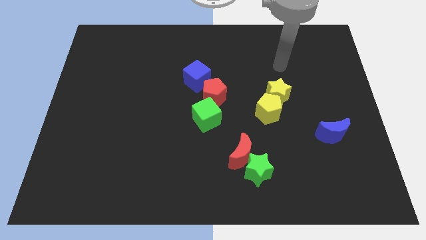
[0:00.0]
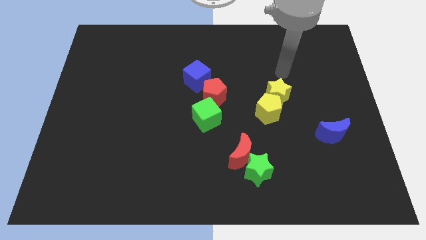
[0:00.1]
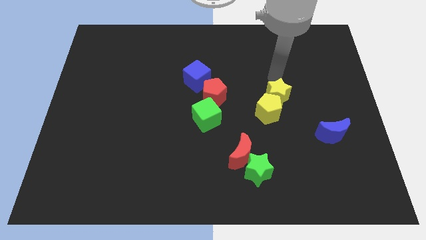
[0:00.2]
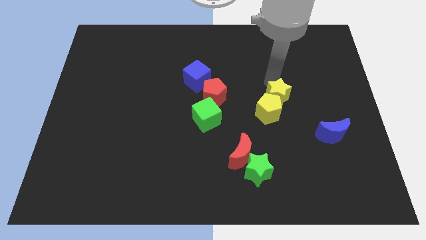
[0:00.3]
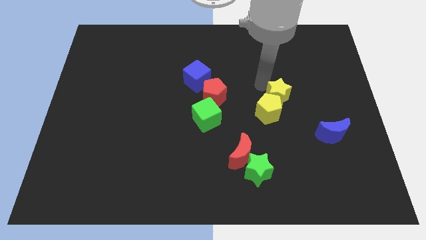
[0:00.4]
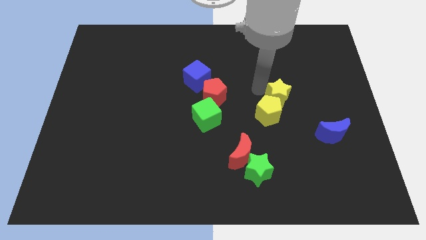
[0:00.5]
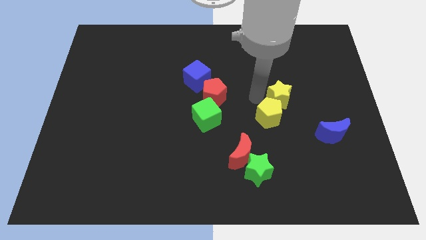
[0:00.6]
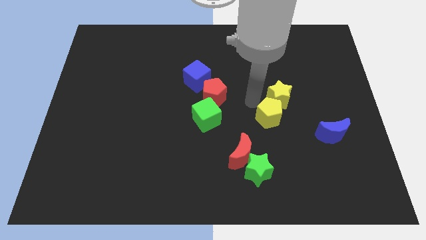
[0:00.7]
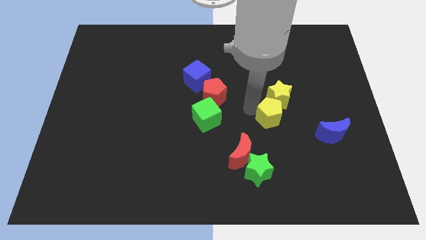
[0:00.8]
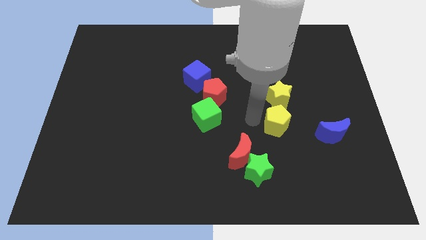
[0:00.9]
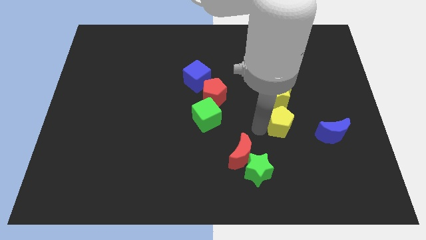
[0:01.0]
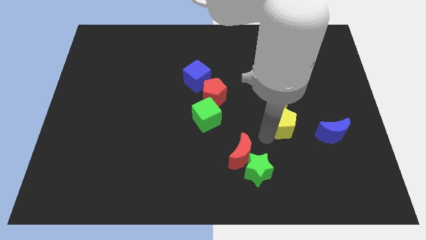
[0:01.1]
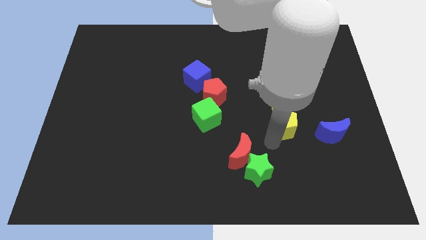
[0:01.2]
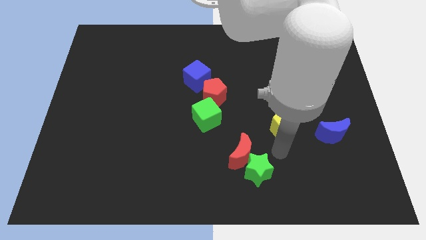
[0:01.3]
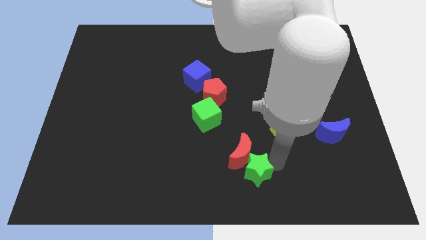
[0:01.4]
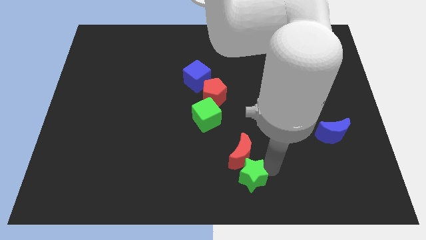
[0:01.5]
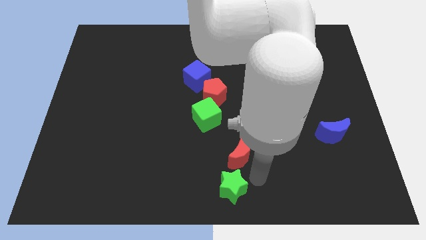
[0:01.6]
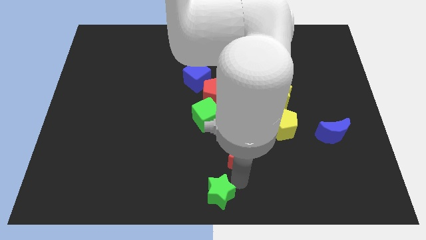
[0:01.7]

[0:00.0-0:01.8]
pull the red moon apart from the green star

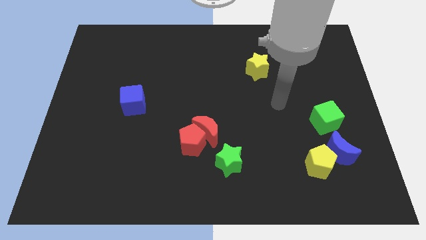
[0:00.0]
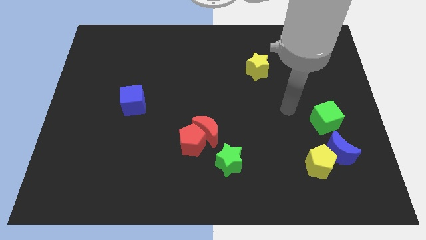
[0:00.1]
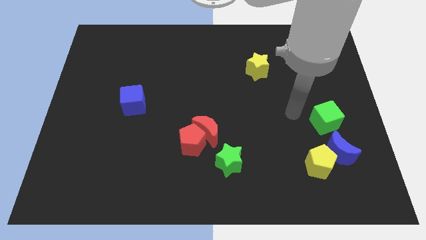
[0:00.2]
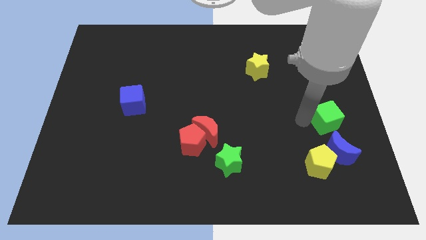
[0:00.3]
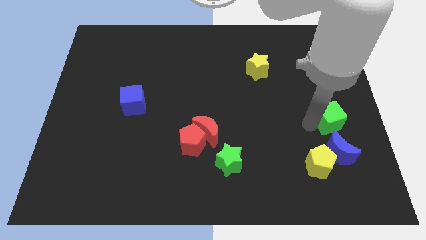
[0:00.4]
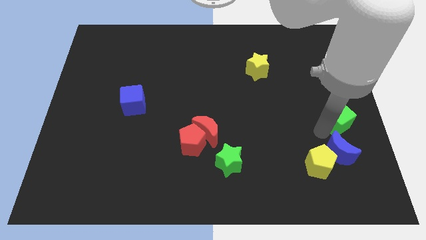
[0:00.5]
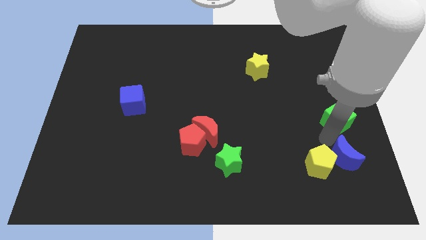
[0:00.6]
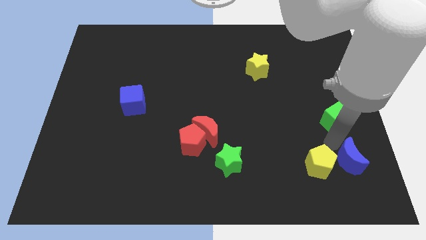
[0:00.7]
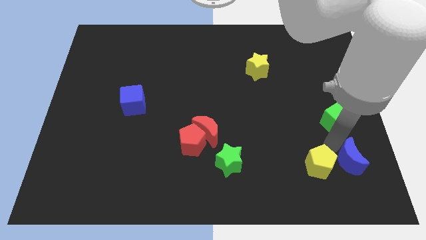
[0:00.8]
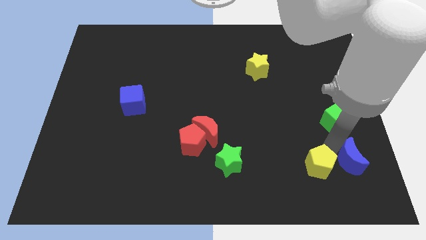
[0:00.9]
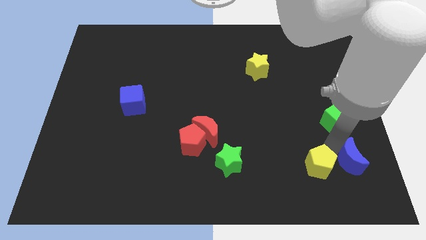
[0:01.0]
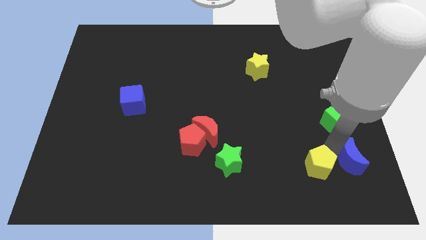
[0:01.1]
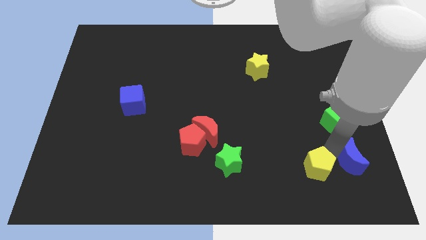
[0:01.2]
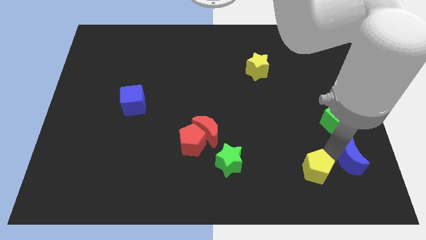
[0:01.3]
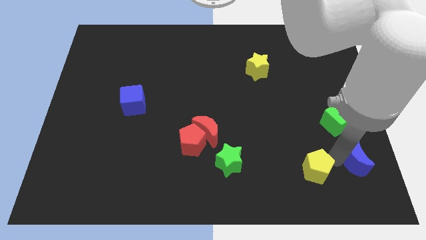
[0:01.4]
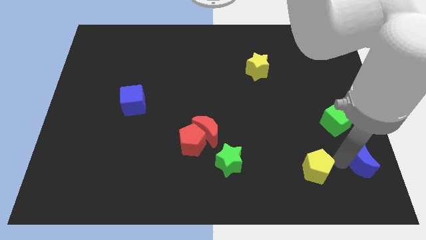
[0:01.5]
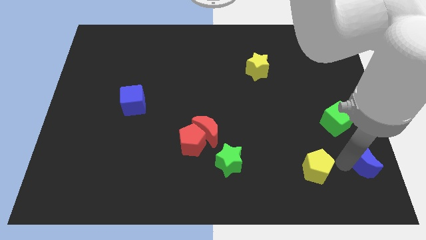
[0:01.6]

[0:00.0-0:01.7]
move the yellow pentagon away from the blue moon

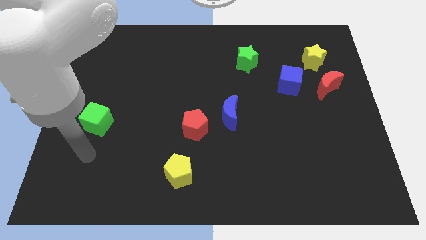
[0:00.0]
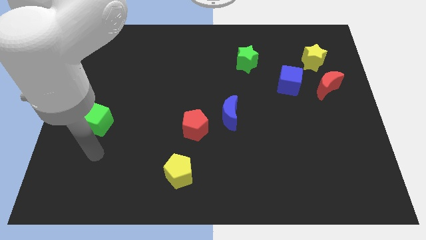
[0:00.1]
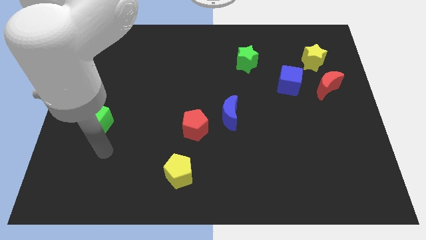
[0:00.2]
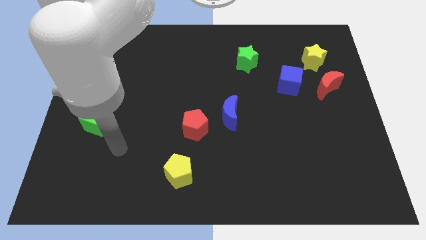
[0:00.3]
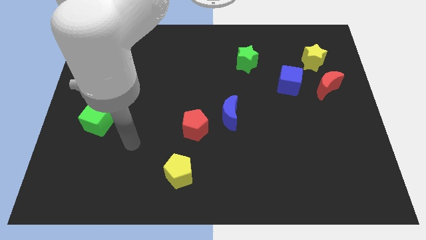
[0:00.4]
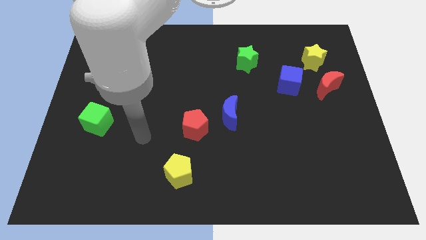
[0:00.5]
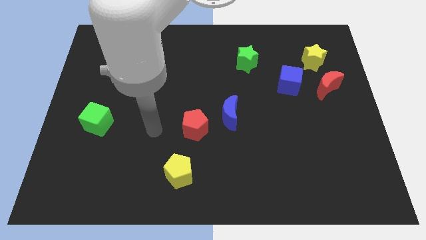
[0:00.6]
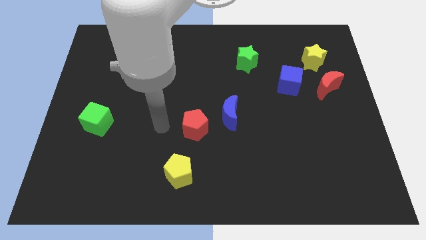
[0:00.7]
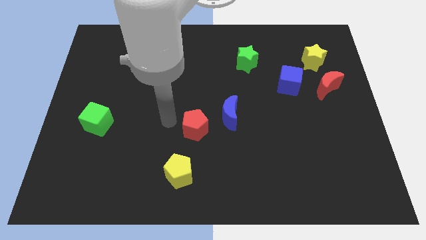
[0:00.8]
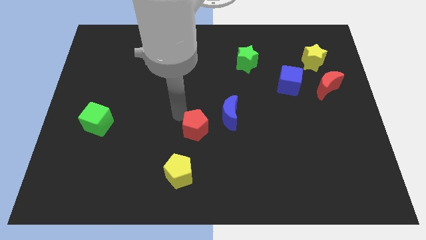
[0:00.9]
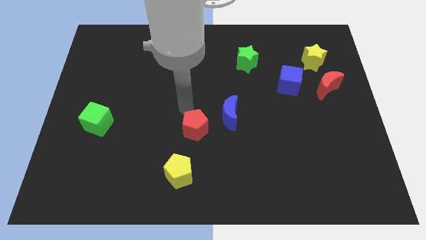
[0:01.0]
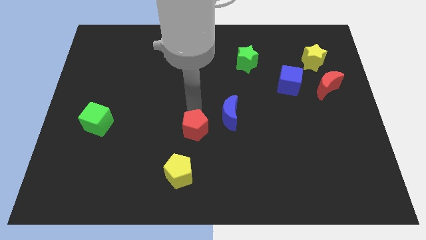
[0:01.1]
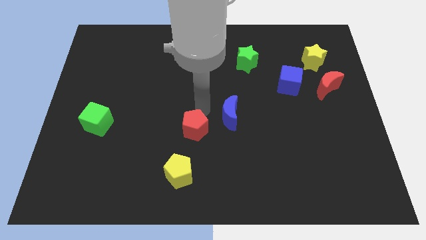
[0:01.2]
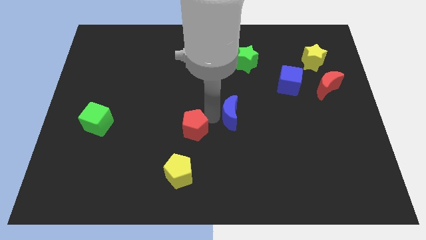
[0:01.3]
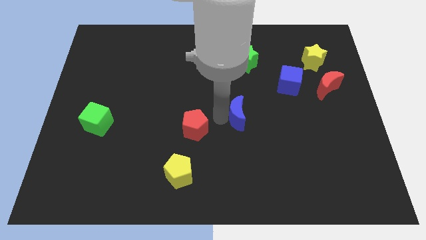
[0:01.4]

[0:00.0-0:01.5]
separate the red pentagon from the blue moon

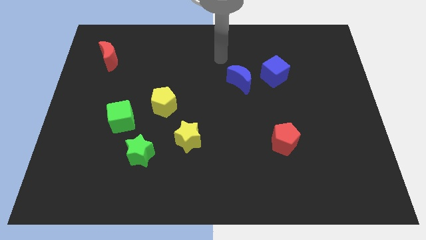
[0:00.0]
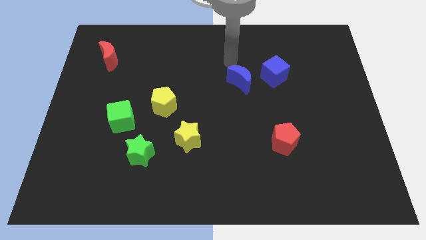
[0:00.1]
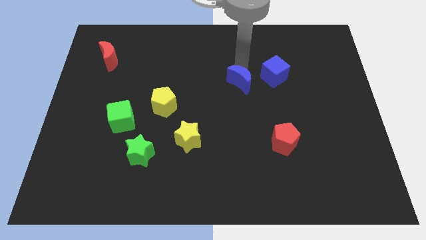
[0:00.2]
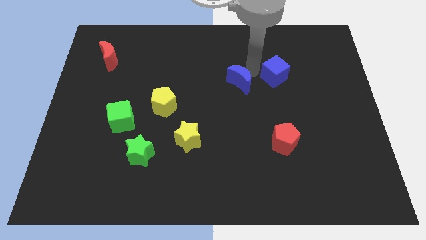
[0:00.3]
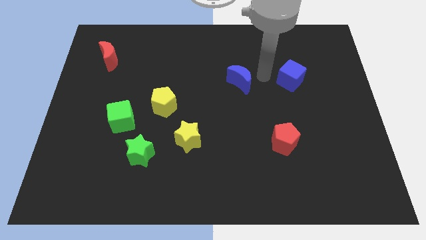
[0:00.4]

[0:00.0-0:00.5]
move the blue moon away from the blue cube

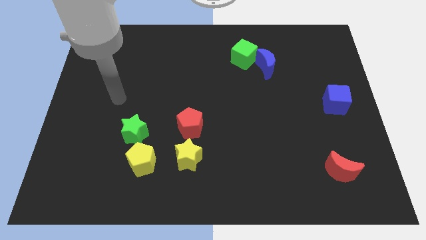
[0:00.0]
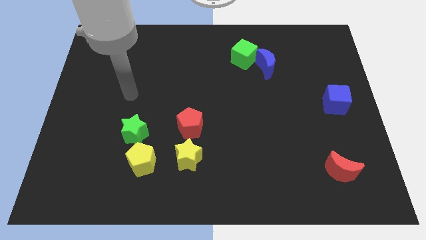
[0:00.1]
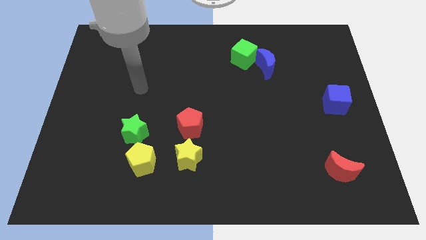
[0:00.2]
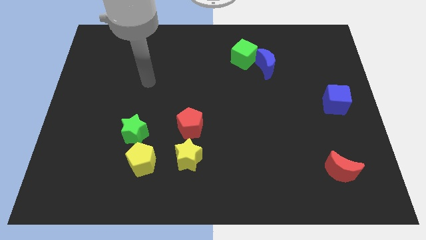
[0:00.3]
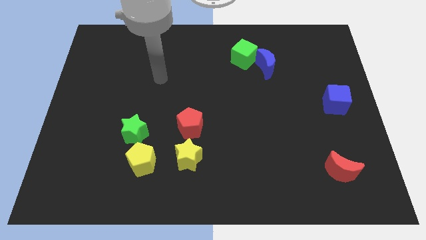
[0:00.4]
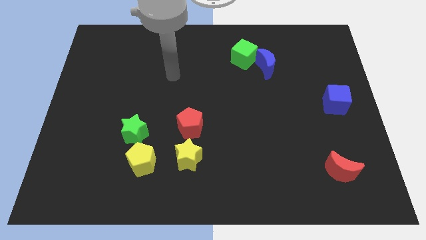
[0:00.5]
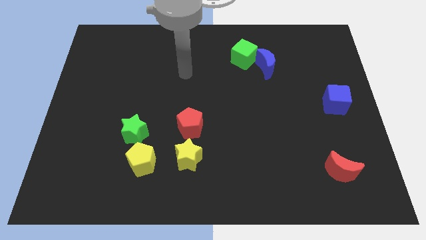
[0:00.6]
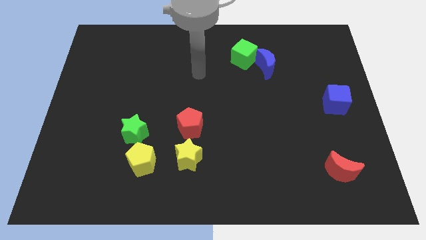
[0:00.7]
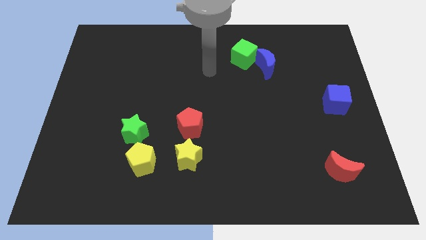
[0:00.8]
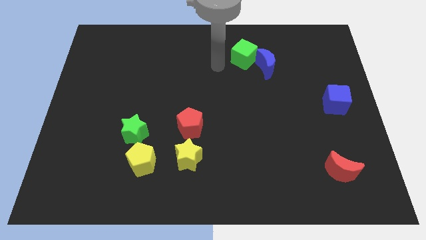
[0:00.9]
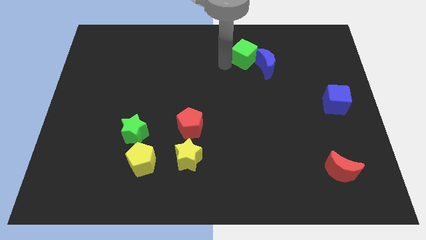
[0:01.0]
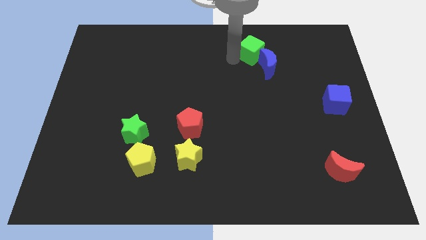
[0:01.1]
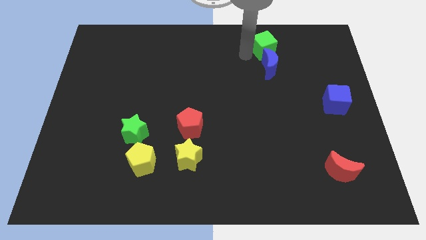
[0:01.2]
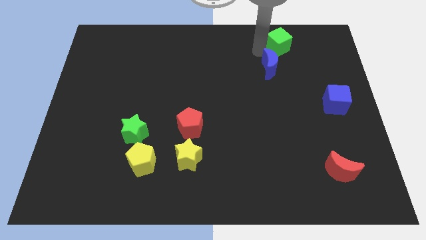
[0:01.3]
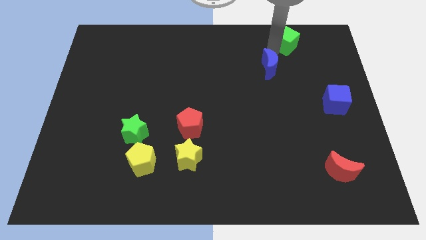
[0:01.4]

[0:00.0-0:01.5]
separate the blue moon from the green cube

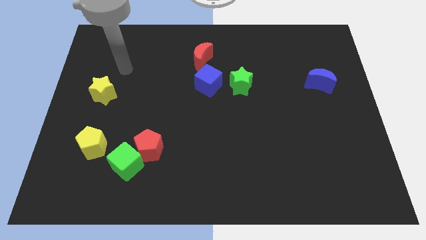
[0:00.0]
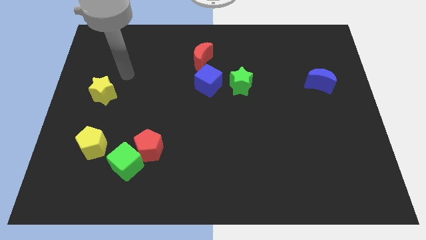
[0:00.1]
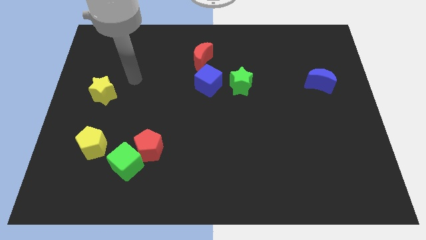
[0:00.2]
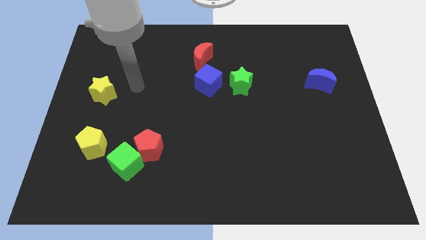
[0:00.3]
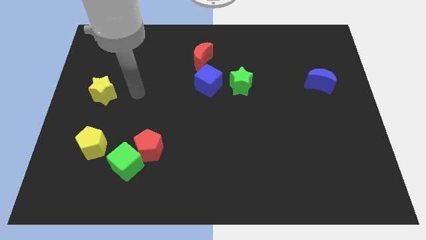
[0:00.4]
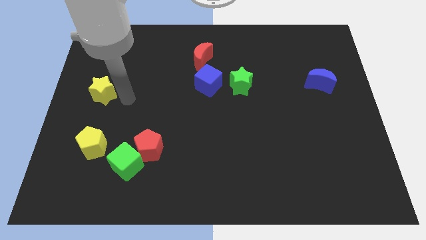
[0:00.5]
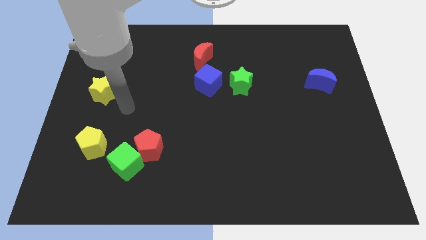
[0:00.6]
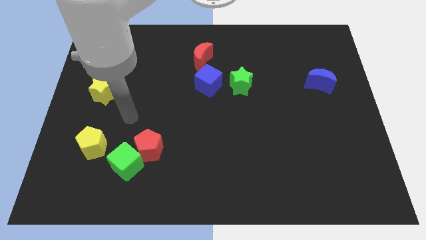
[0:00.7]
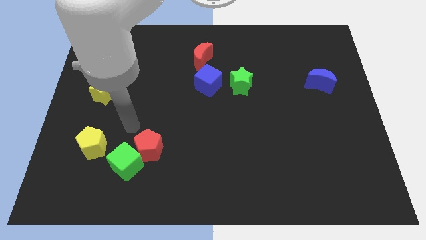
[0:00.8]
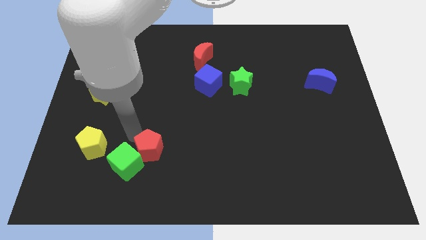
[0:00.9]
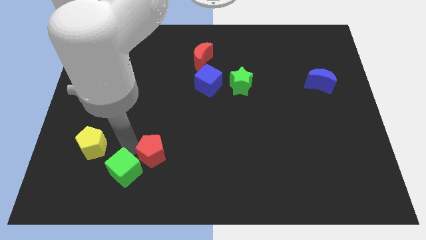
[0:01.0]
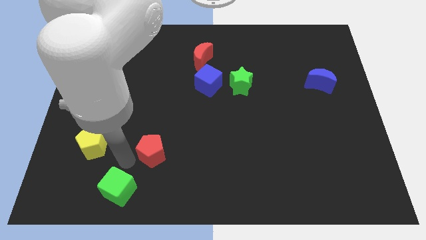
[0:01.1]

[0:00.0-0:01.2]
separate the red pentagon from the green cube

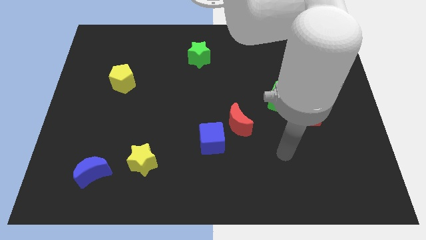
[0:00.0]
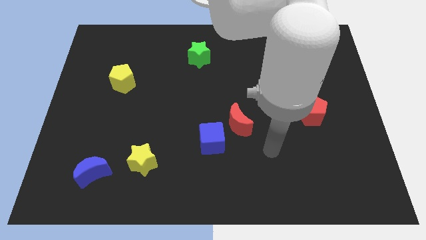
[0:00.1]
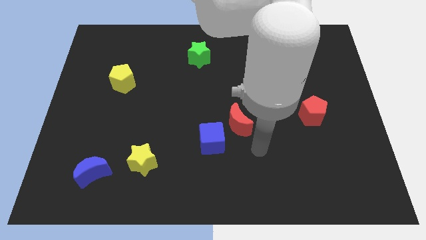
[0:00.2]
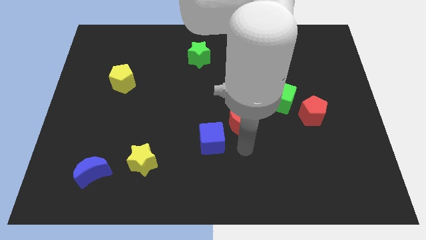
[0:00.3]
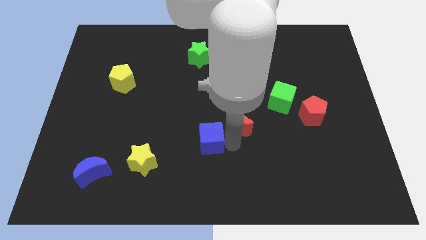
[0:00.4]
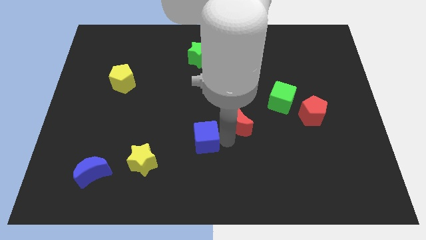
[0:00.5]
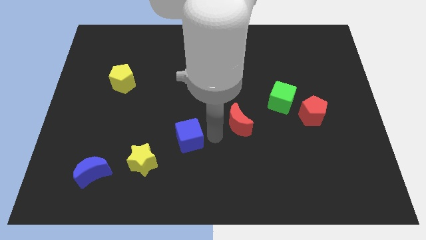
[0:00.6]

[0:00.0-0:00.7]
separate the red moon from the blue cube

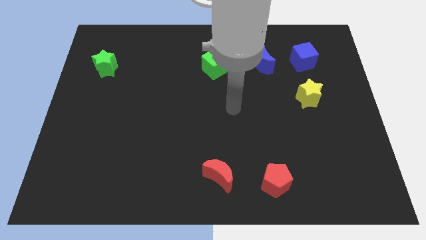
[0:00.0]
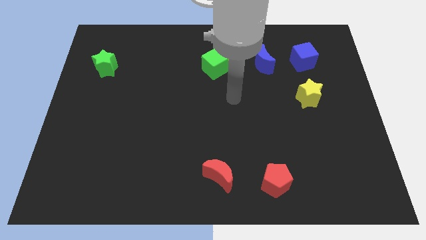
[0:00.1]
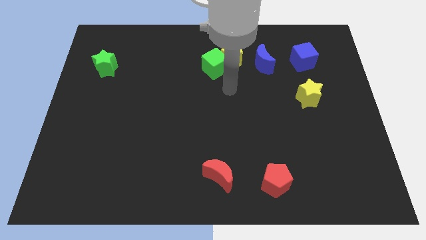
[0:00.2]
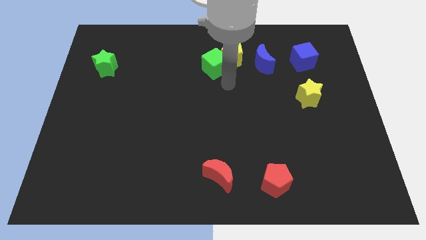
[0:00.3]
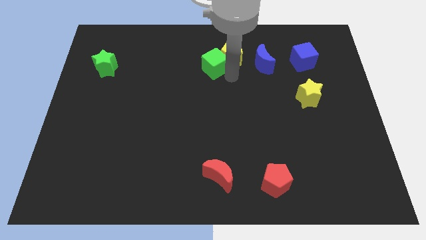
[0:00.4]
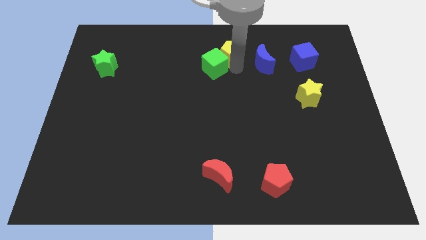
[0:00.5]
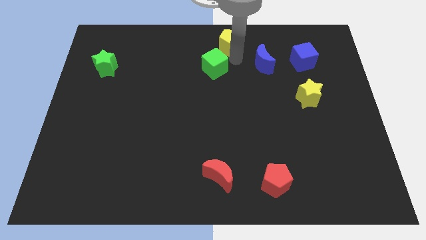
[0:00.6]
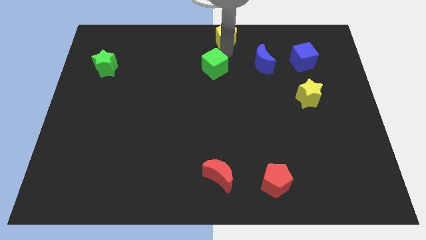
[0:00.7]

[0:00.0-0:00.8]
pull the green cube apart from the yellow pentagon
